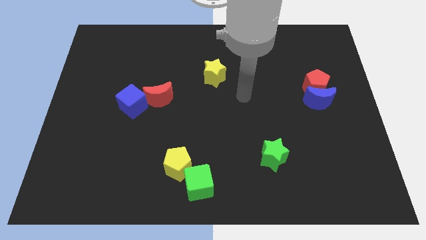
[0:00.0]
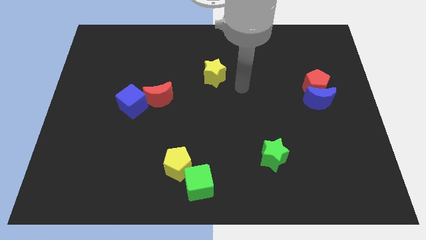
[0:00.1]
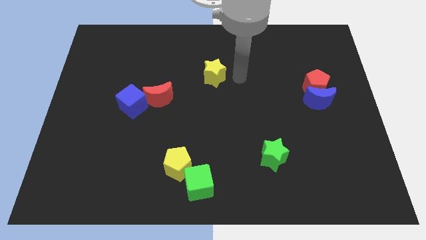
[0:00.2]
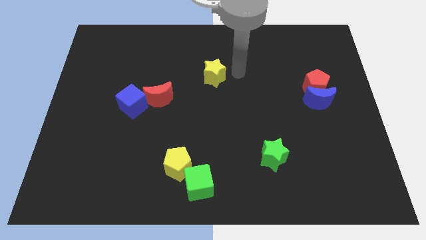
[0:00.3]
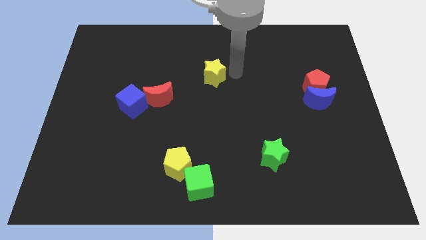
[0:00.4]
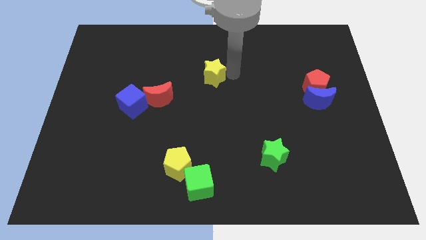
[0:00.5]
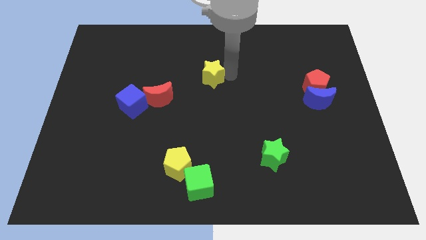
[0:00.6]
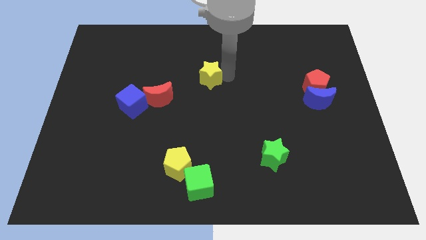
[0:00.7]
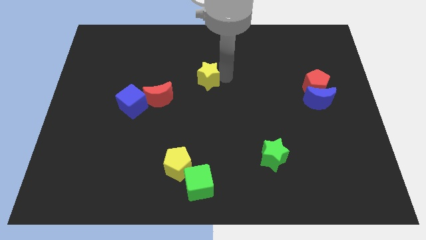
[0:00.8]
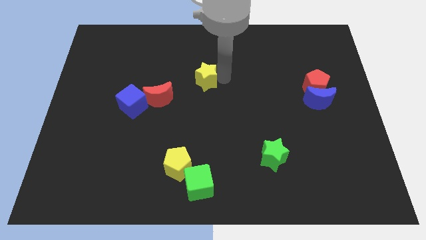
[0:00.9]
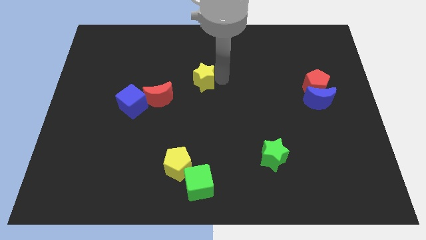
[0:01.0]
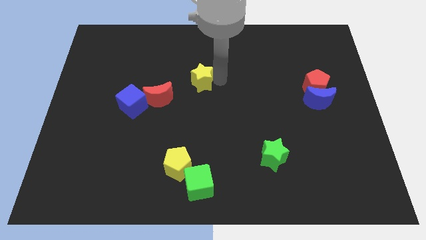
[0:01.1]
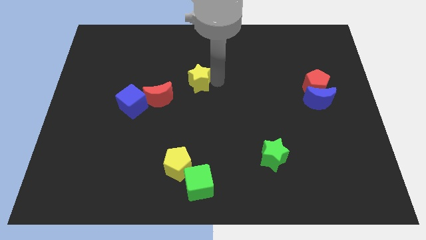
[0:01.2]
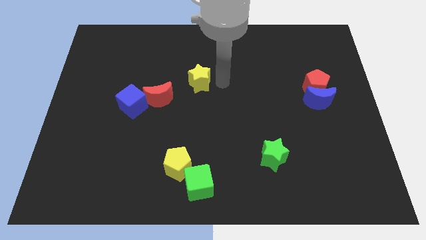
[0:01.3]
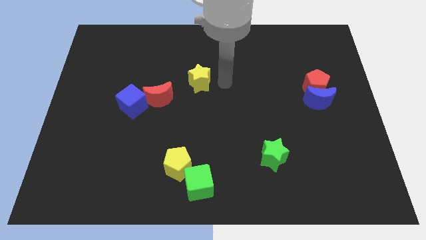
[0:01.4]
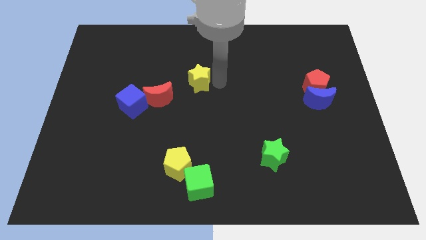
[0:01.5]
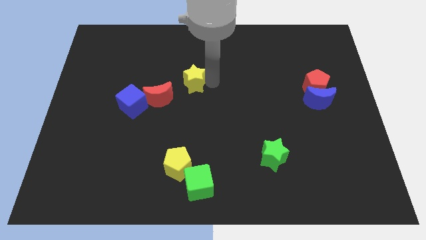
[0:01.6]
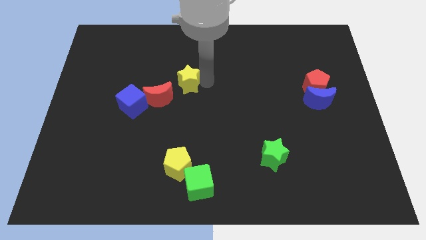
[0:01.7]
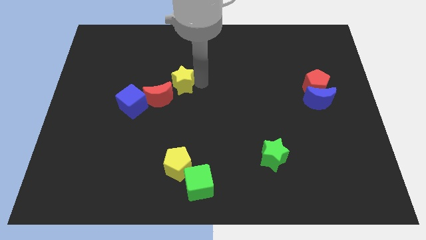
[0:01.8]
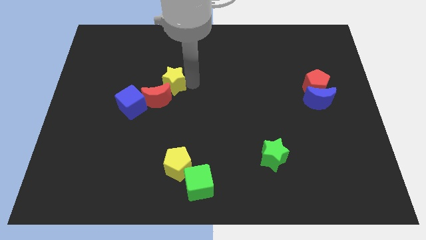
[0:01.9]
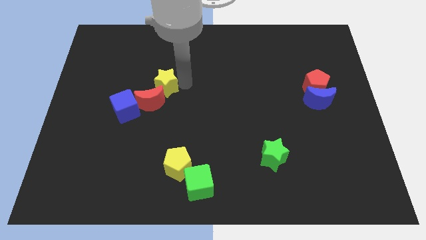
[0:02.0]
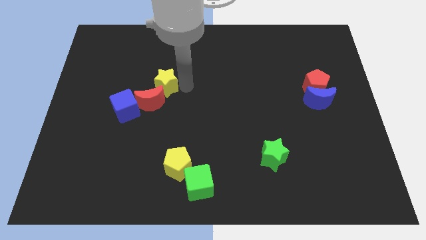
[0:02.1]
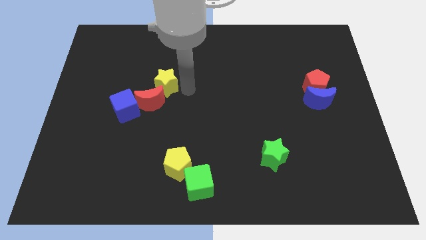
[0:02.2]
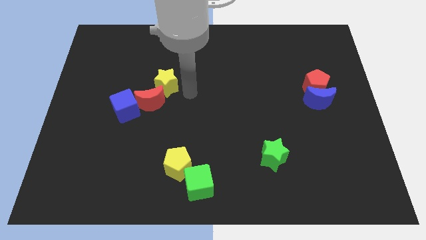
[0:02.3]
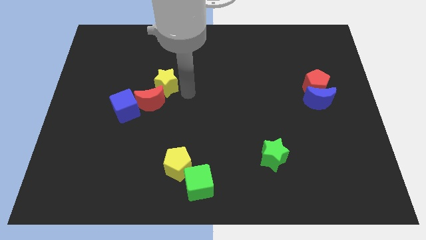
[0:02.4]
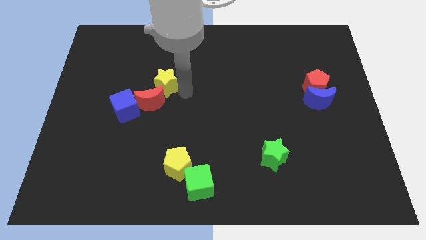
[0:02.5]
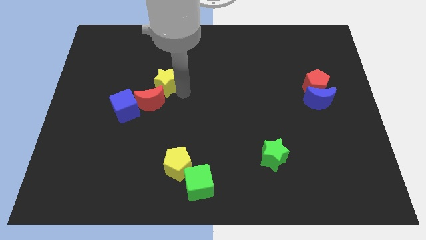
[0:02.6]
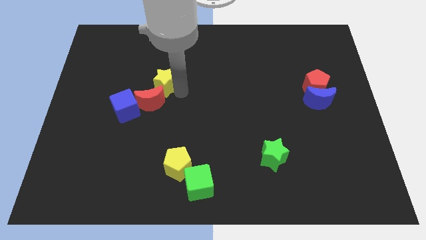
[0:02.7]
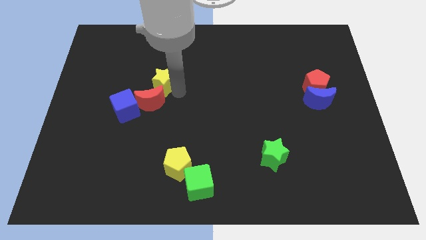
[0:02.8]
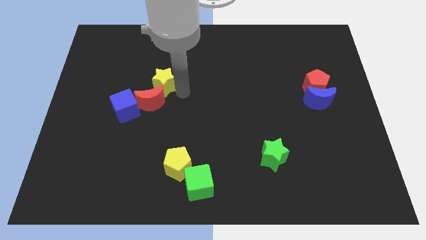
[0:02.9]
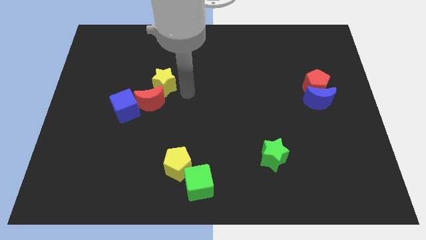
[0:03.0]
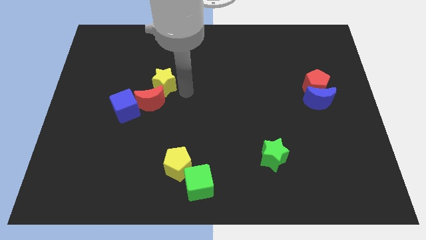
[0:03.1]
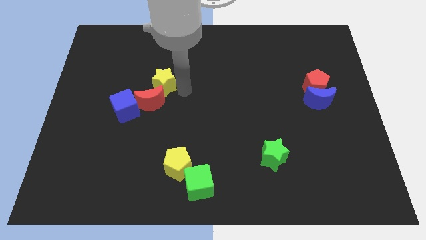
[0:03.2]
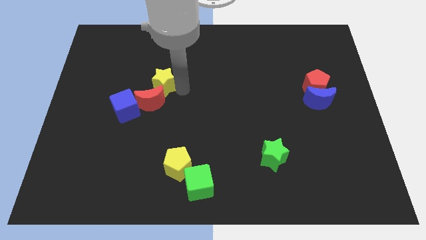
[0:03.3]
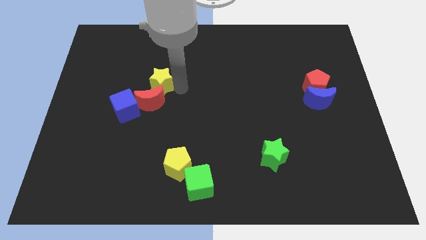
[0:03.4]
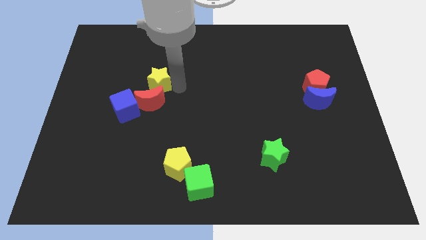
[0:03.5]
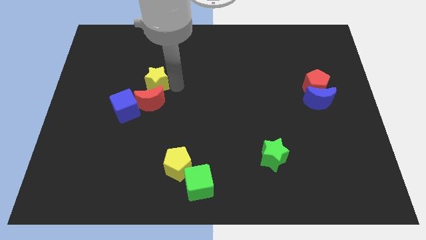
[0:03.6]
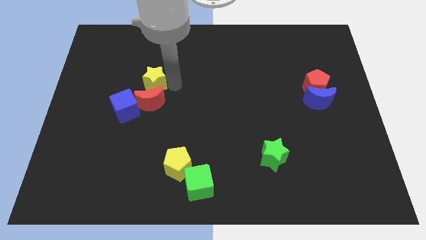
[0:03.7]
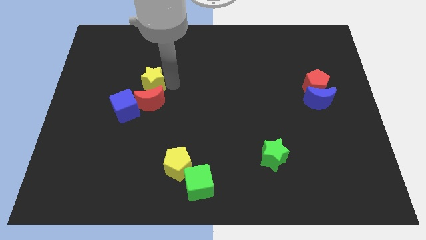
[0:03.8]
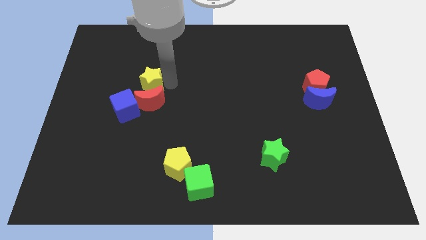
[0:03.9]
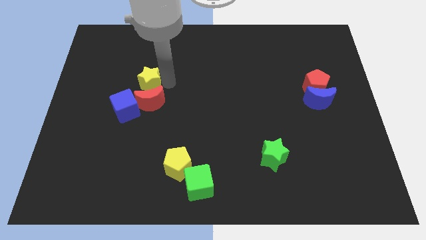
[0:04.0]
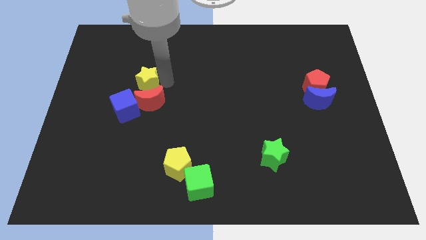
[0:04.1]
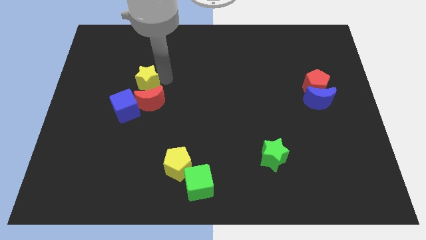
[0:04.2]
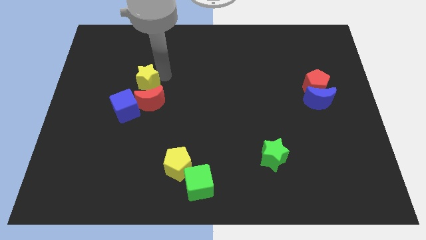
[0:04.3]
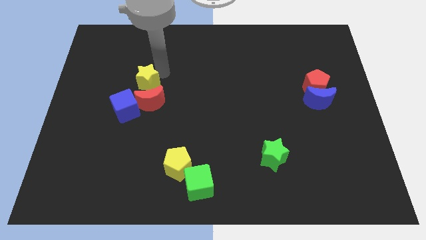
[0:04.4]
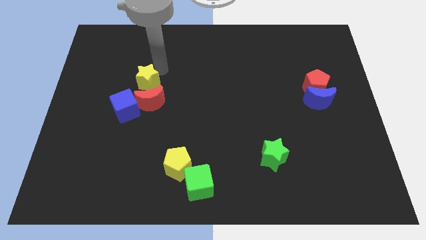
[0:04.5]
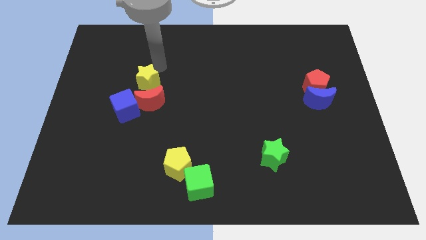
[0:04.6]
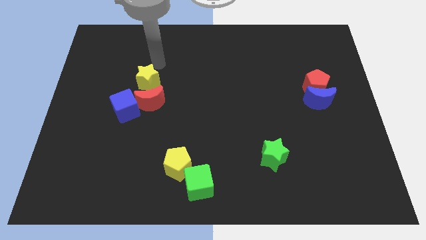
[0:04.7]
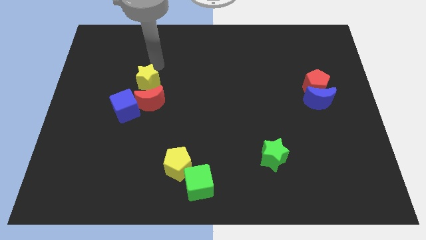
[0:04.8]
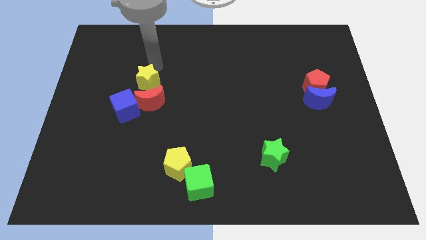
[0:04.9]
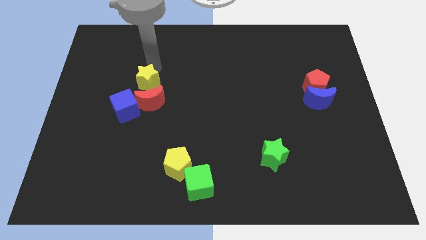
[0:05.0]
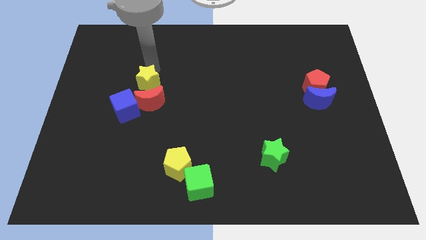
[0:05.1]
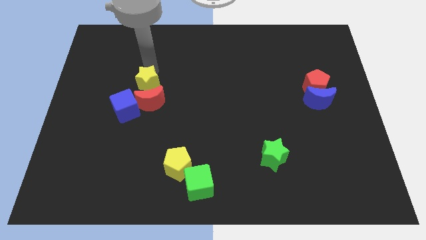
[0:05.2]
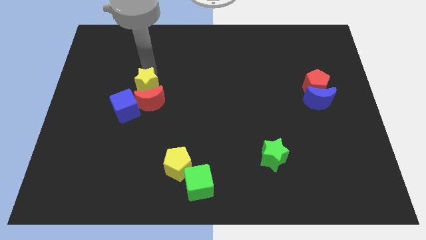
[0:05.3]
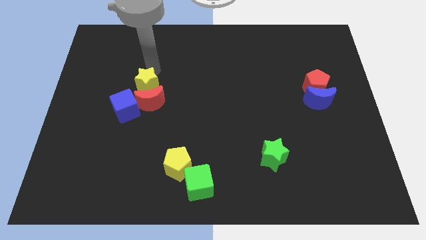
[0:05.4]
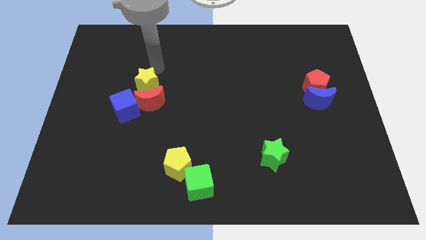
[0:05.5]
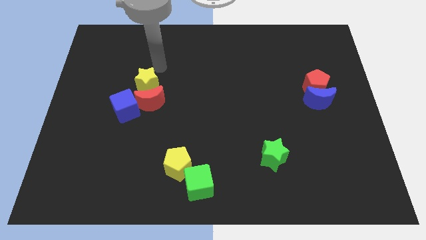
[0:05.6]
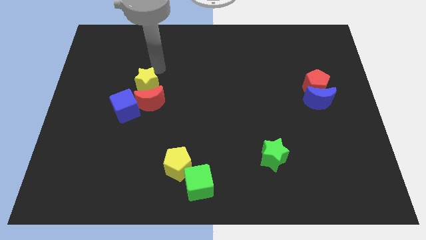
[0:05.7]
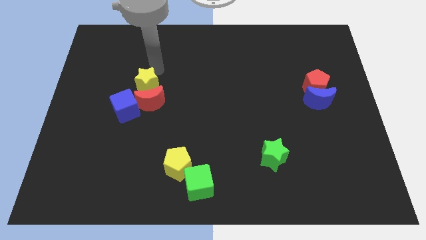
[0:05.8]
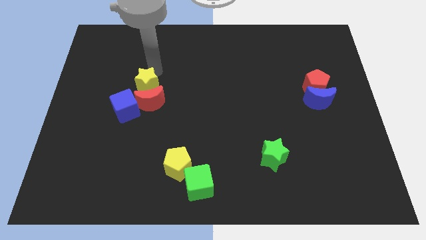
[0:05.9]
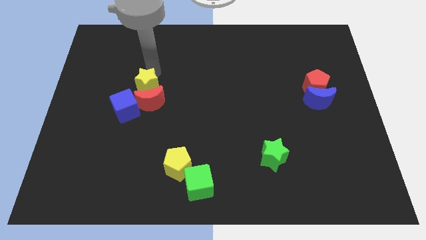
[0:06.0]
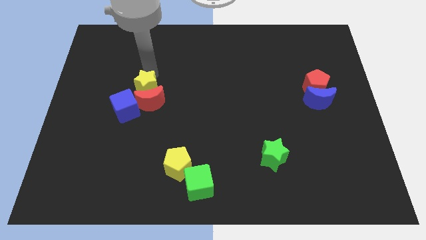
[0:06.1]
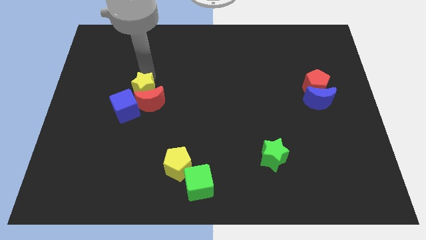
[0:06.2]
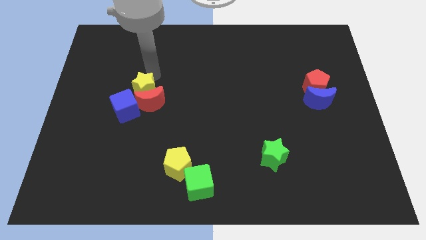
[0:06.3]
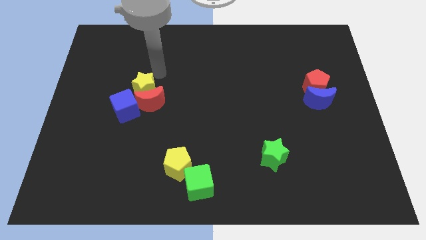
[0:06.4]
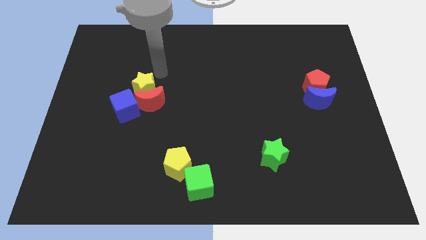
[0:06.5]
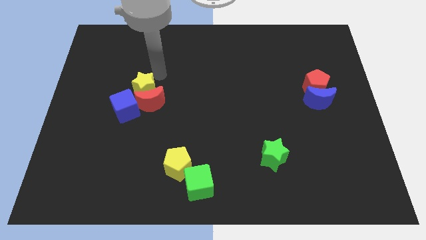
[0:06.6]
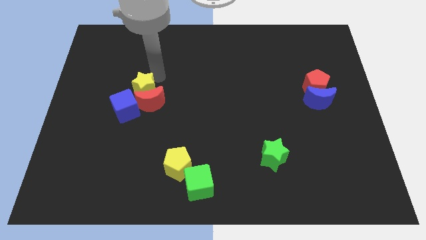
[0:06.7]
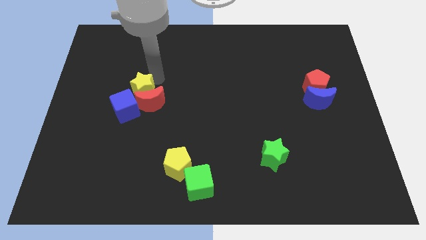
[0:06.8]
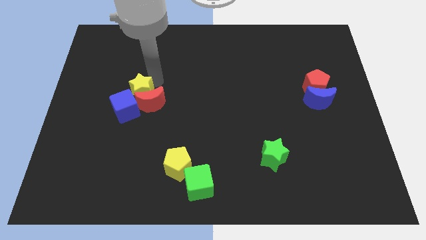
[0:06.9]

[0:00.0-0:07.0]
slide the yellow star towards the blue cube

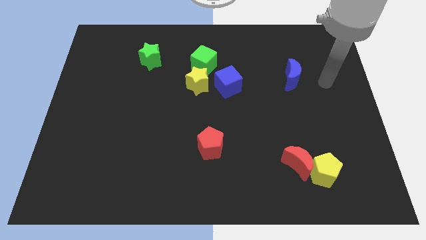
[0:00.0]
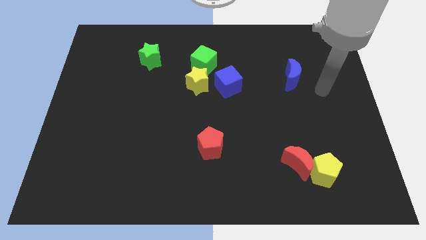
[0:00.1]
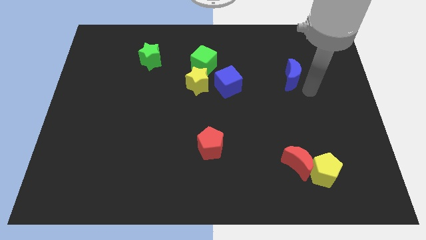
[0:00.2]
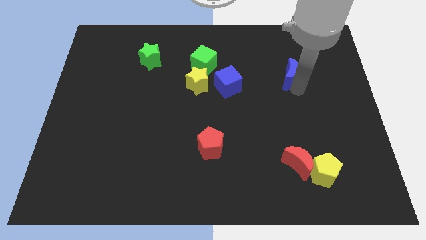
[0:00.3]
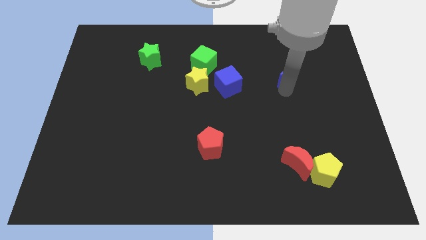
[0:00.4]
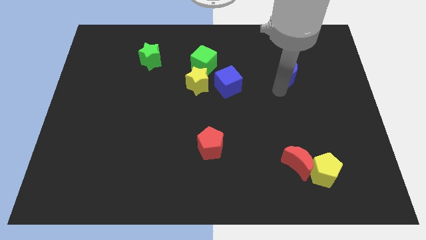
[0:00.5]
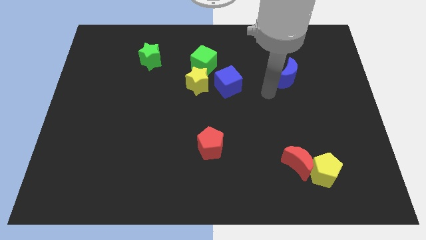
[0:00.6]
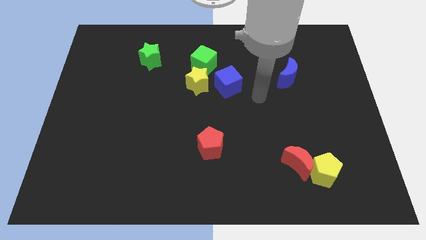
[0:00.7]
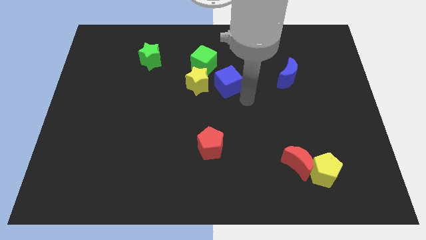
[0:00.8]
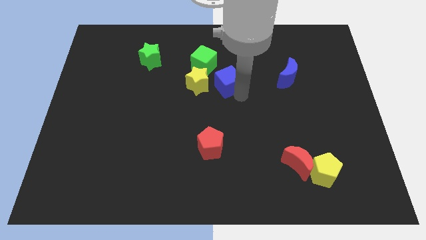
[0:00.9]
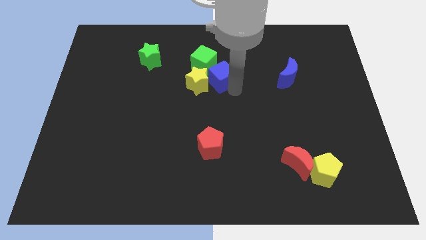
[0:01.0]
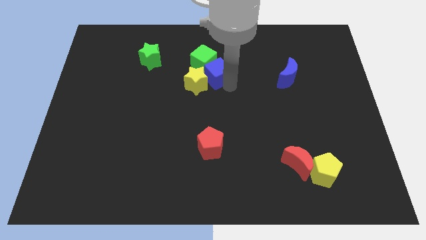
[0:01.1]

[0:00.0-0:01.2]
move the blue cube towards the green cube
